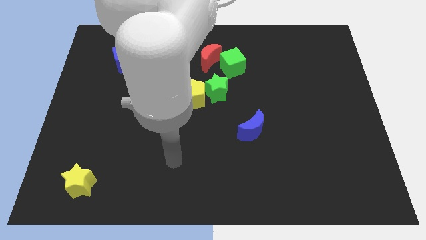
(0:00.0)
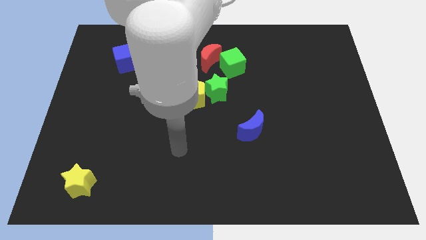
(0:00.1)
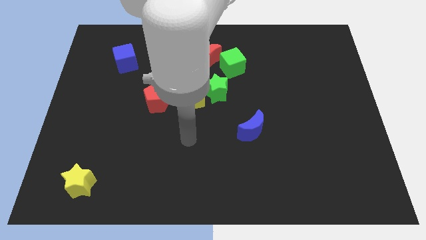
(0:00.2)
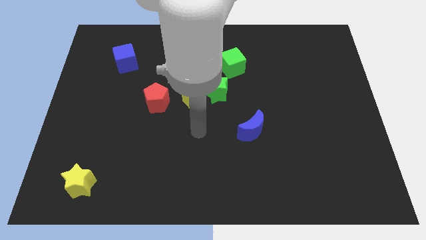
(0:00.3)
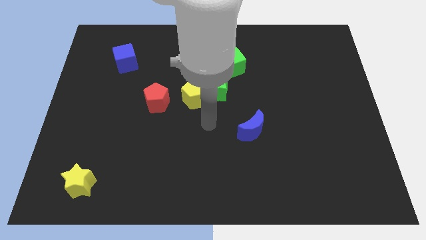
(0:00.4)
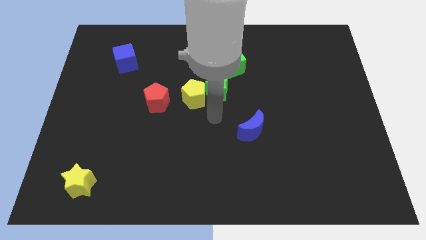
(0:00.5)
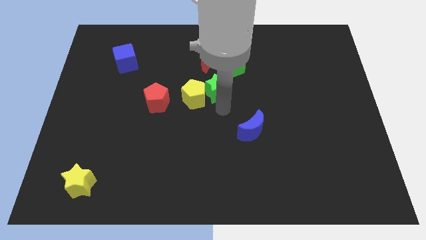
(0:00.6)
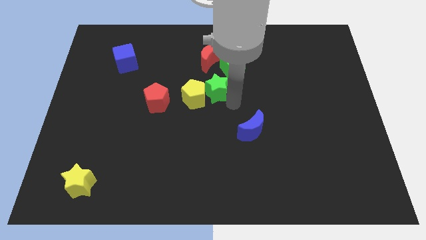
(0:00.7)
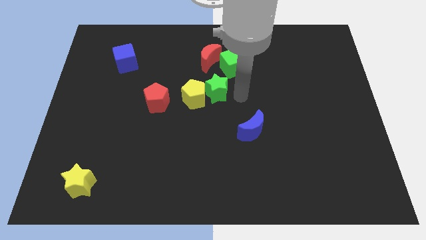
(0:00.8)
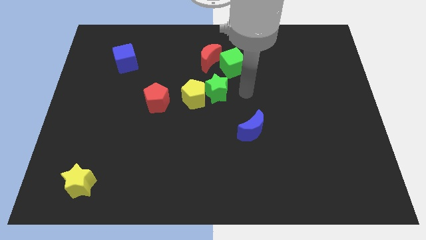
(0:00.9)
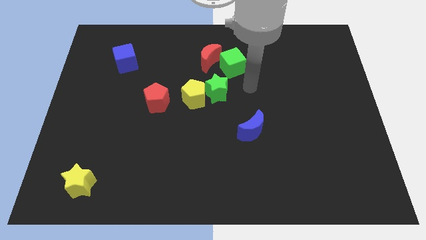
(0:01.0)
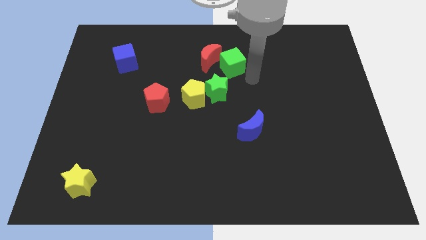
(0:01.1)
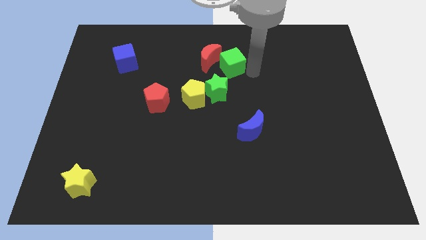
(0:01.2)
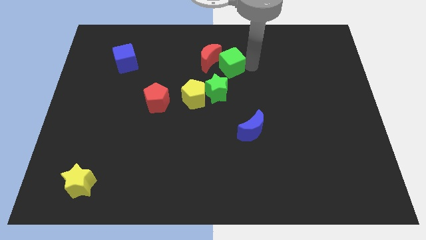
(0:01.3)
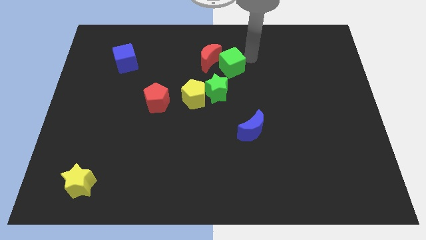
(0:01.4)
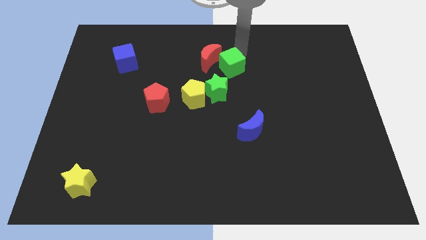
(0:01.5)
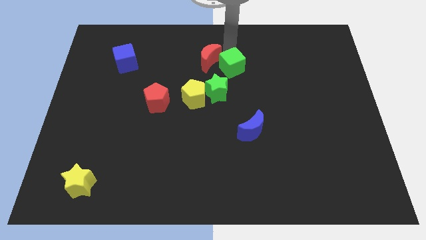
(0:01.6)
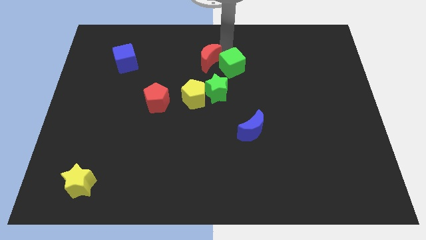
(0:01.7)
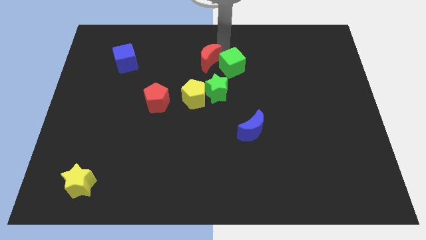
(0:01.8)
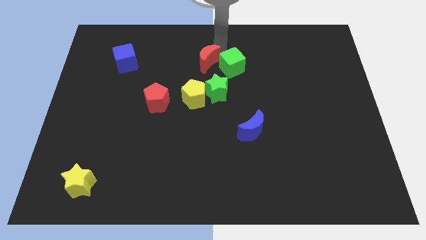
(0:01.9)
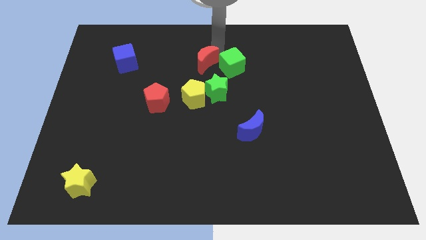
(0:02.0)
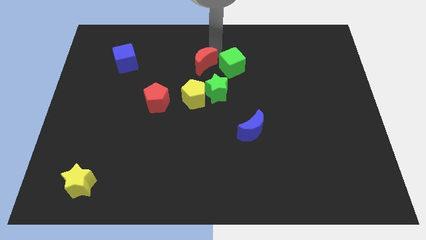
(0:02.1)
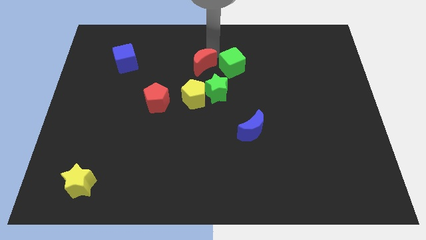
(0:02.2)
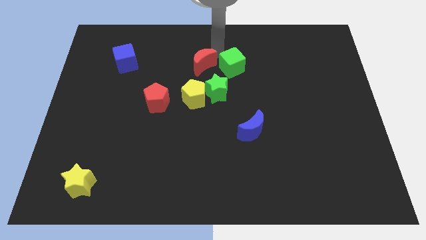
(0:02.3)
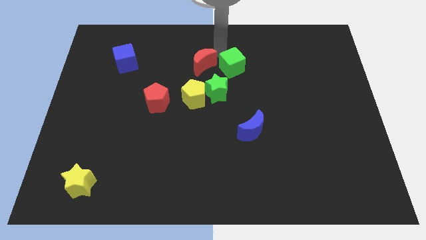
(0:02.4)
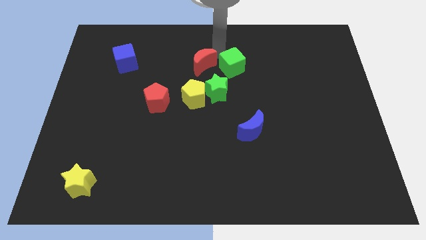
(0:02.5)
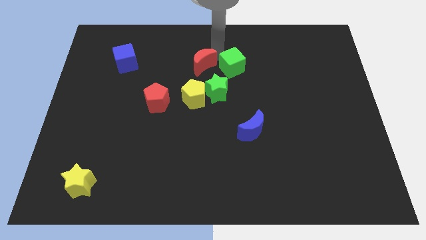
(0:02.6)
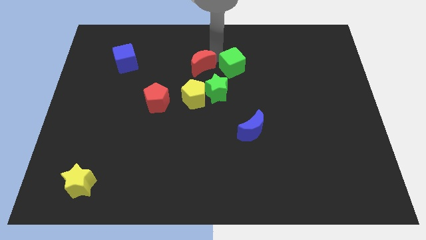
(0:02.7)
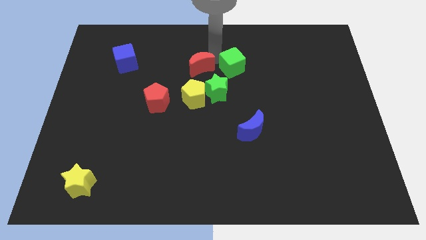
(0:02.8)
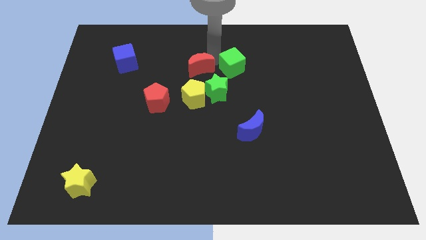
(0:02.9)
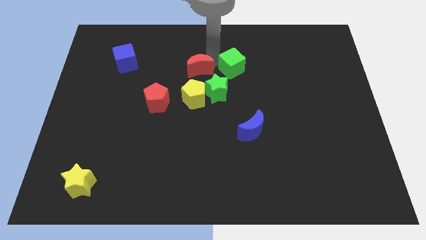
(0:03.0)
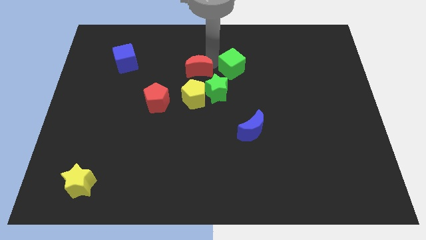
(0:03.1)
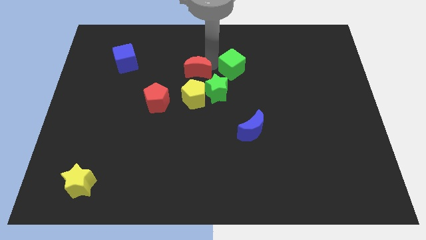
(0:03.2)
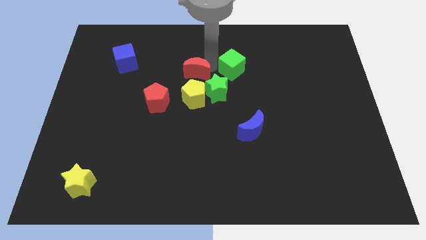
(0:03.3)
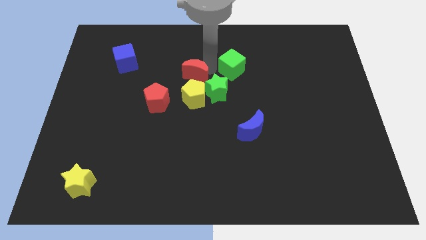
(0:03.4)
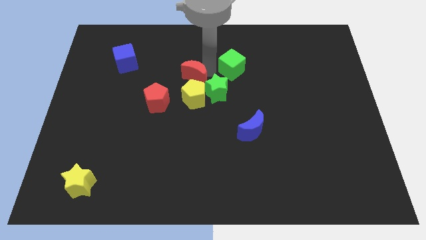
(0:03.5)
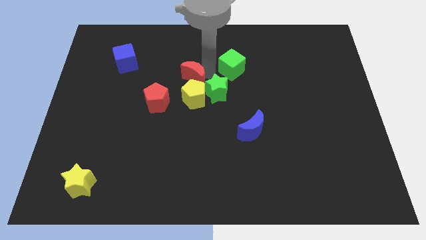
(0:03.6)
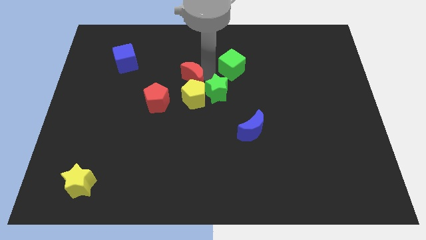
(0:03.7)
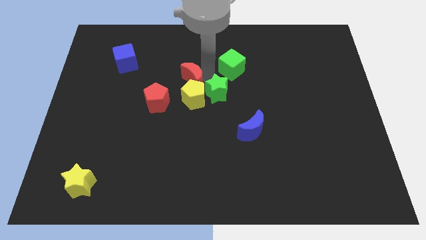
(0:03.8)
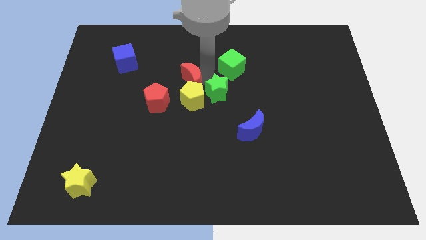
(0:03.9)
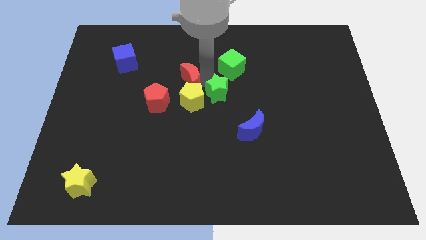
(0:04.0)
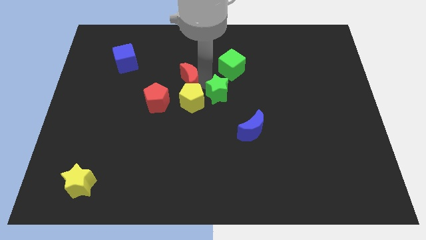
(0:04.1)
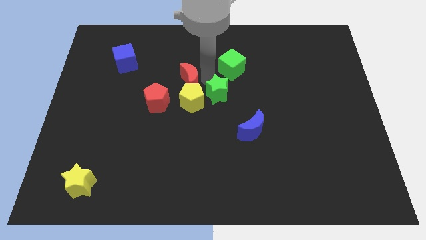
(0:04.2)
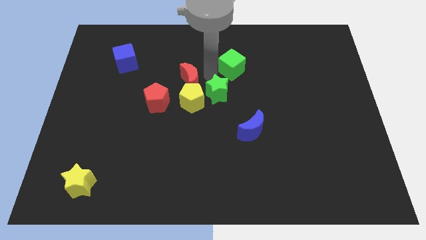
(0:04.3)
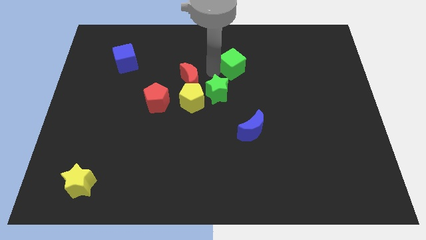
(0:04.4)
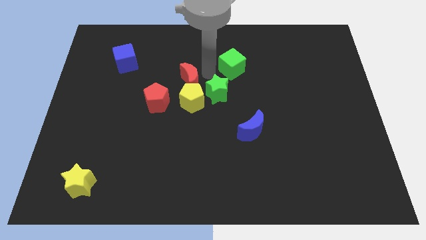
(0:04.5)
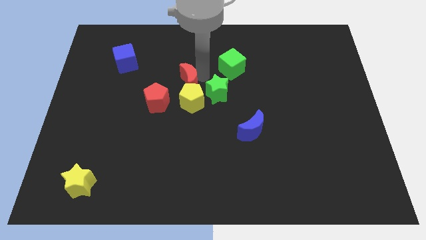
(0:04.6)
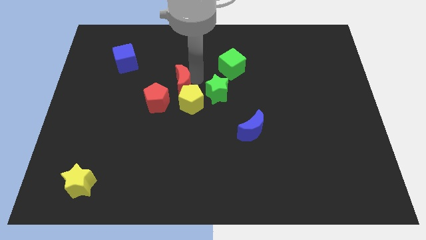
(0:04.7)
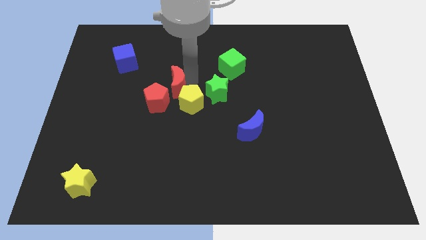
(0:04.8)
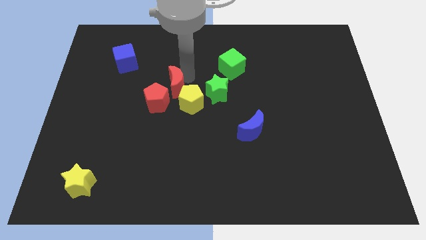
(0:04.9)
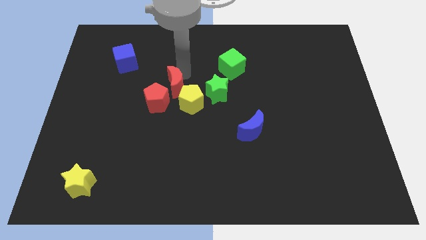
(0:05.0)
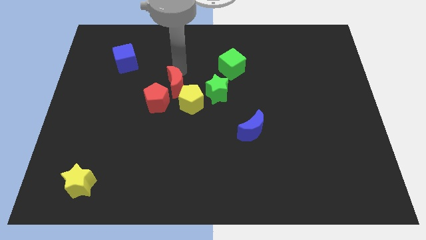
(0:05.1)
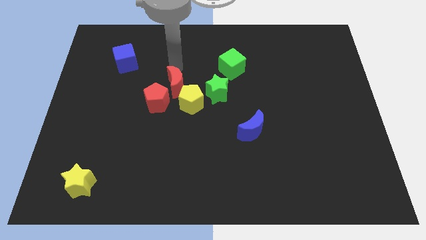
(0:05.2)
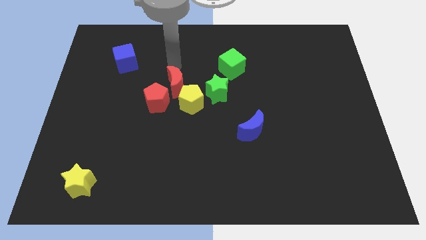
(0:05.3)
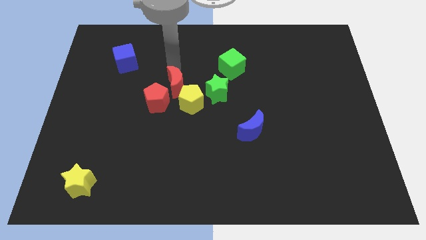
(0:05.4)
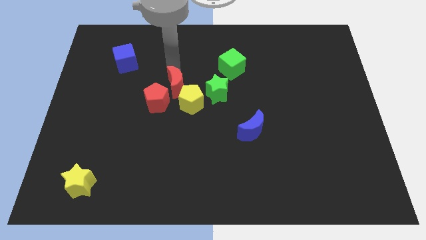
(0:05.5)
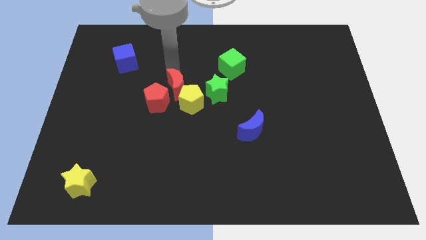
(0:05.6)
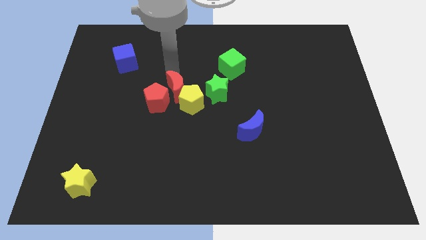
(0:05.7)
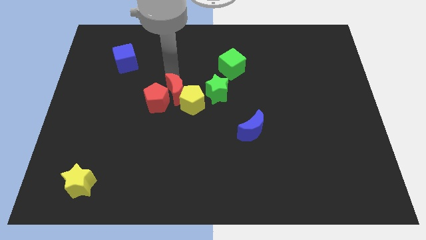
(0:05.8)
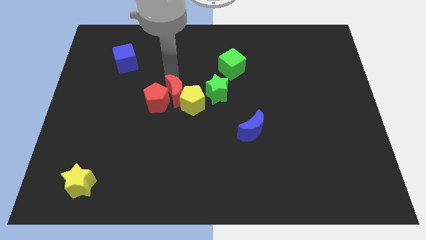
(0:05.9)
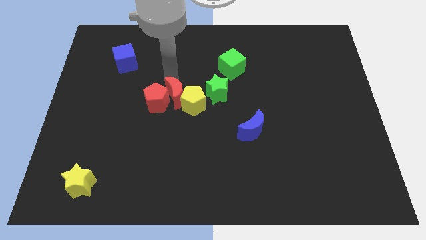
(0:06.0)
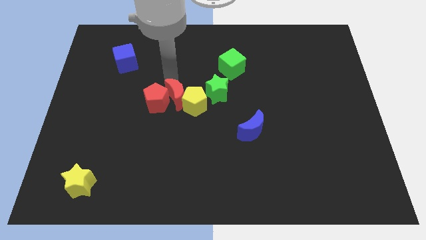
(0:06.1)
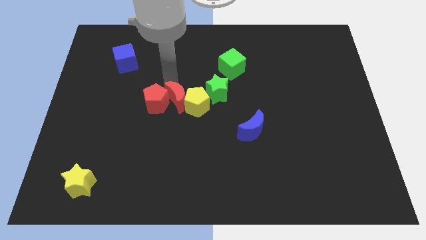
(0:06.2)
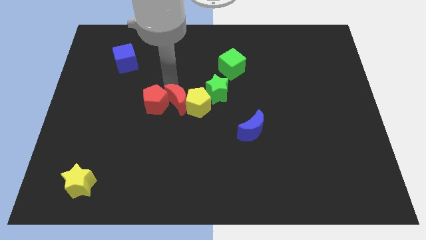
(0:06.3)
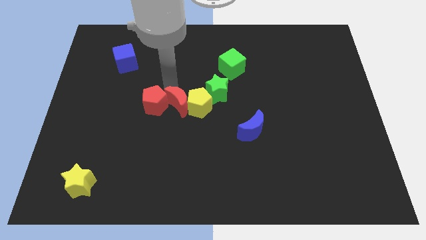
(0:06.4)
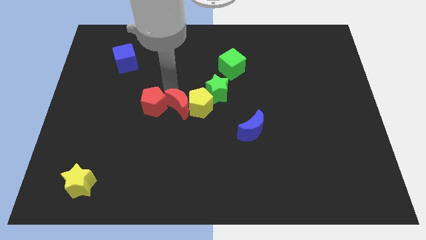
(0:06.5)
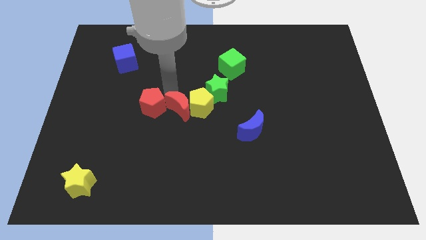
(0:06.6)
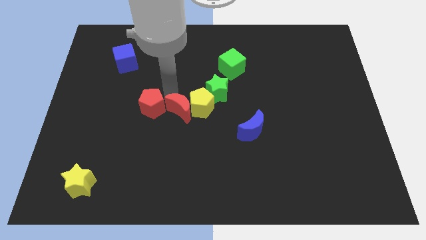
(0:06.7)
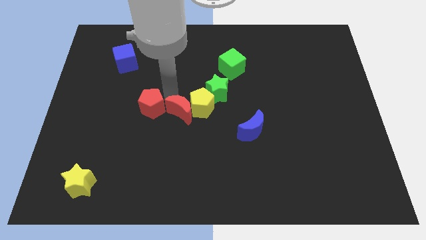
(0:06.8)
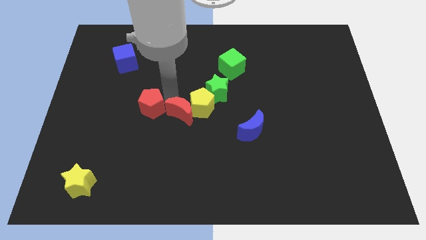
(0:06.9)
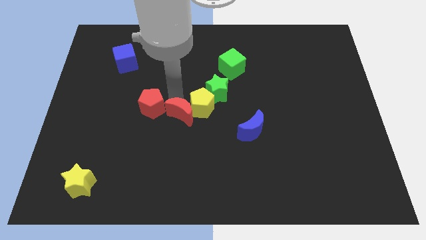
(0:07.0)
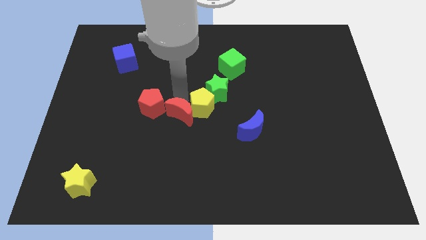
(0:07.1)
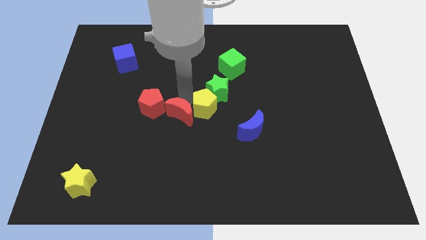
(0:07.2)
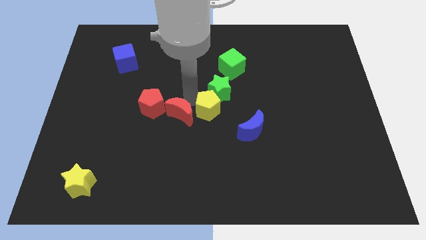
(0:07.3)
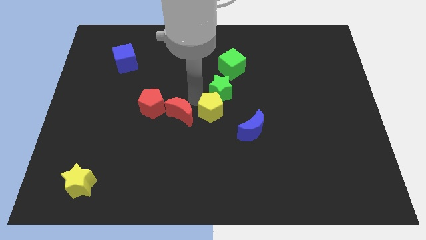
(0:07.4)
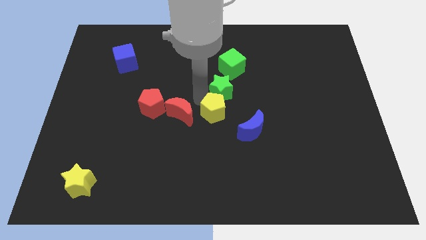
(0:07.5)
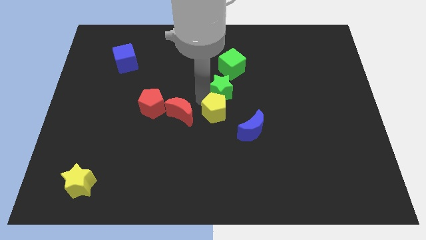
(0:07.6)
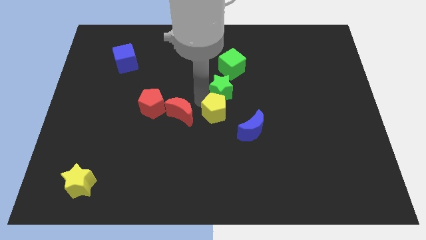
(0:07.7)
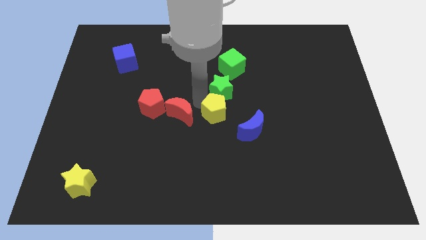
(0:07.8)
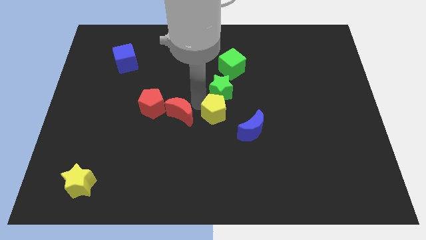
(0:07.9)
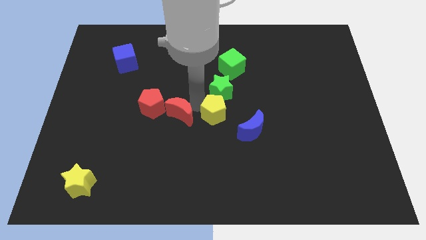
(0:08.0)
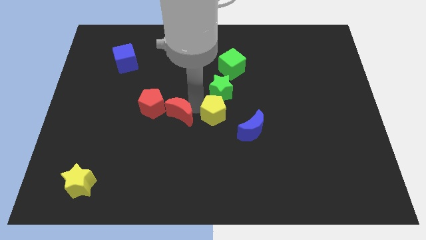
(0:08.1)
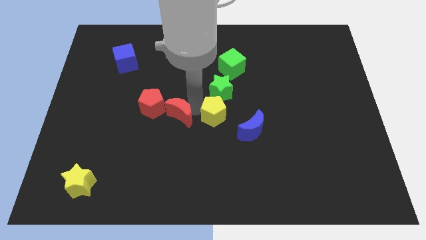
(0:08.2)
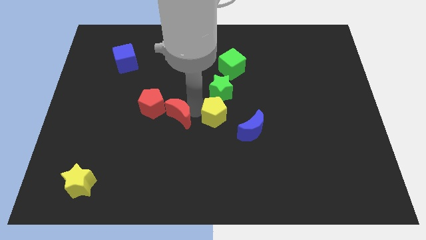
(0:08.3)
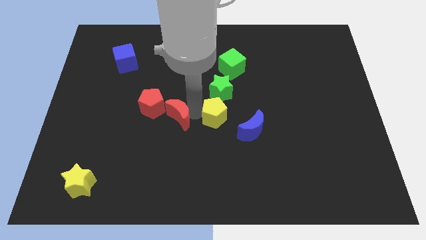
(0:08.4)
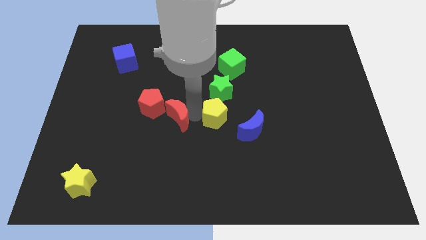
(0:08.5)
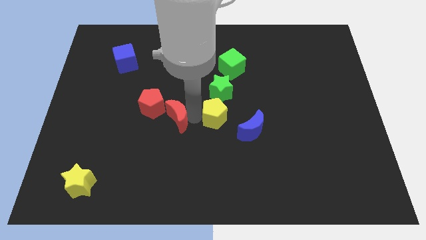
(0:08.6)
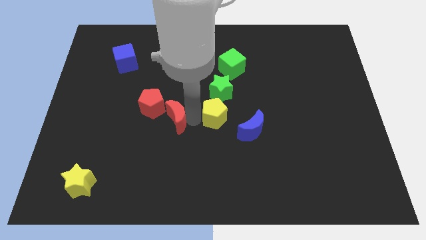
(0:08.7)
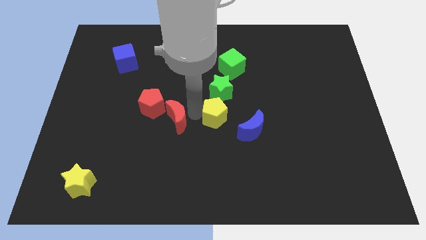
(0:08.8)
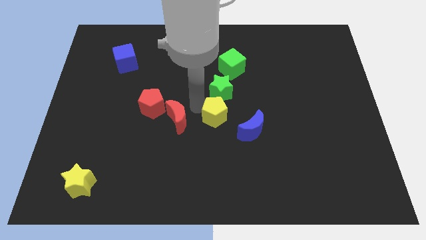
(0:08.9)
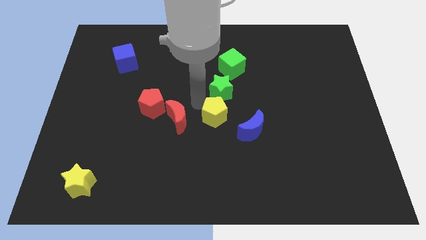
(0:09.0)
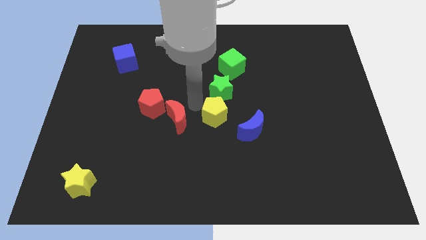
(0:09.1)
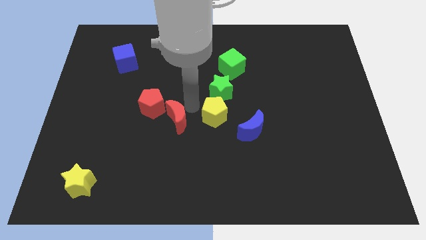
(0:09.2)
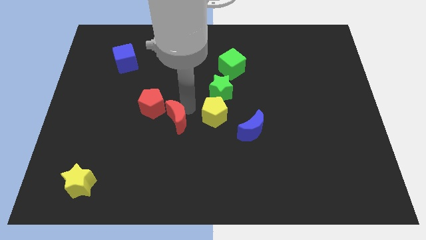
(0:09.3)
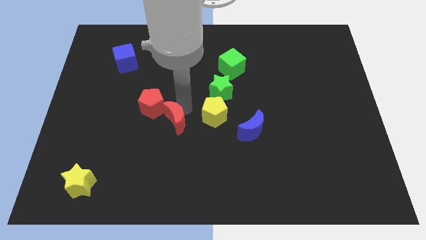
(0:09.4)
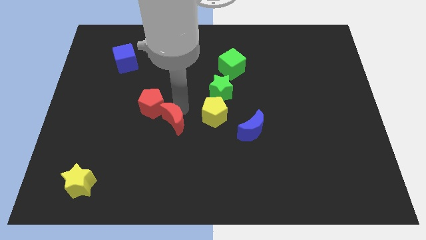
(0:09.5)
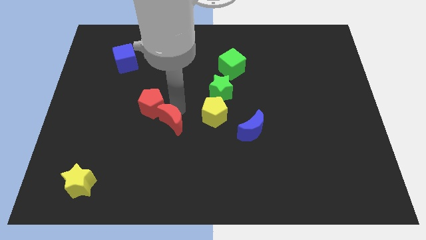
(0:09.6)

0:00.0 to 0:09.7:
put the red moon to the bottom side of the red pentagon
